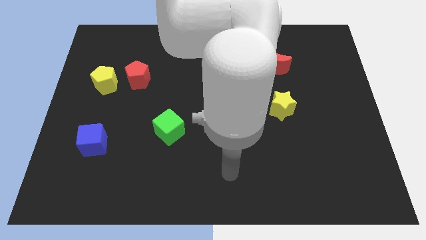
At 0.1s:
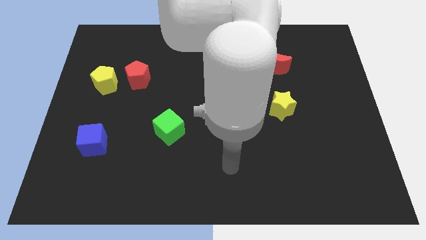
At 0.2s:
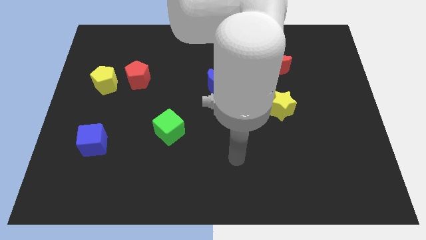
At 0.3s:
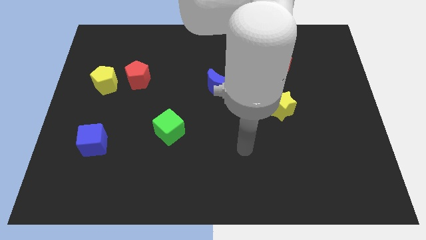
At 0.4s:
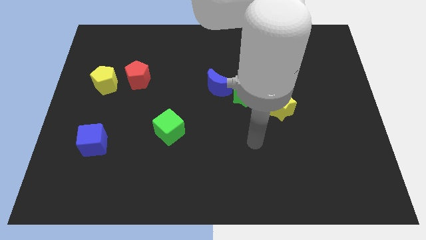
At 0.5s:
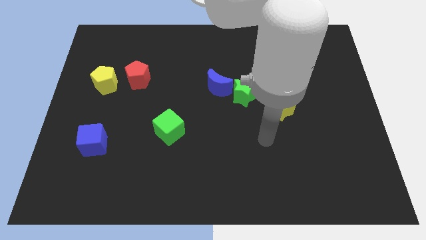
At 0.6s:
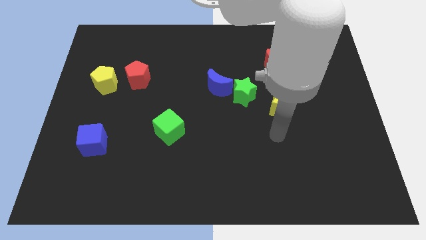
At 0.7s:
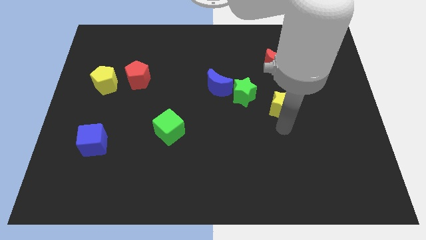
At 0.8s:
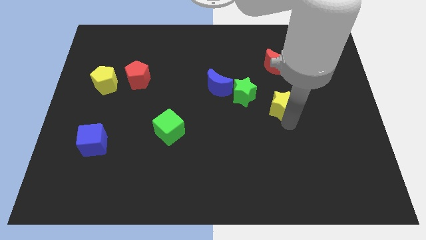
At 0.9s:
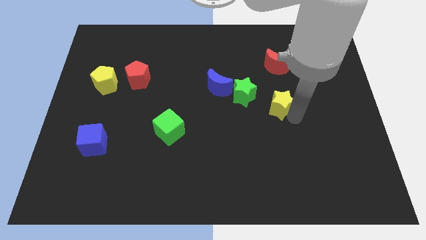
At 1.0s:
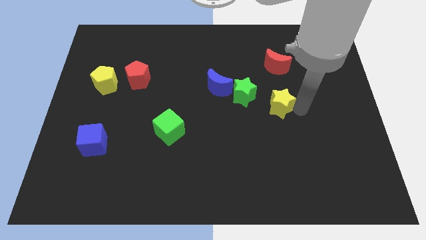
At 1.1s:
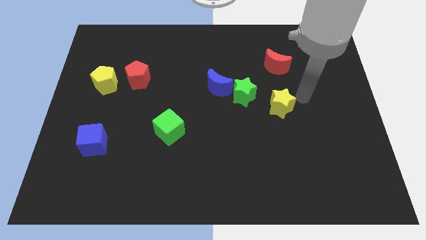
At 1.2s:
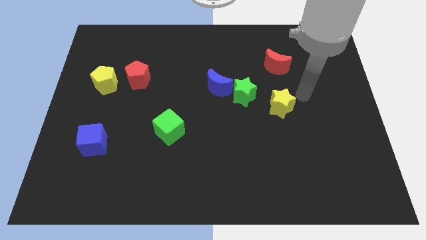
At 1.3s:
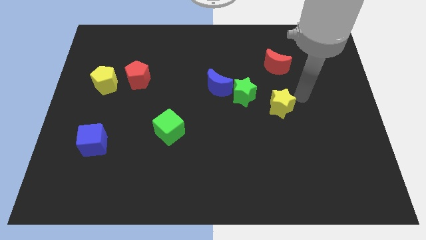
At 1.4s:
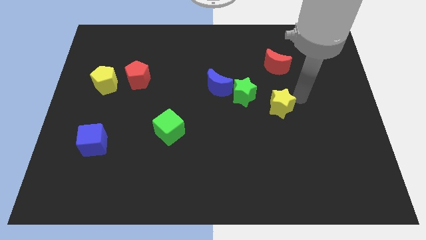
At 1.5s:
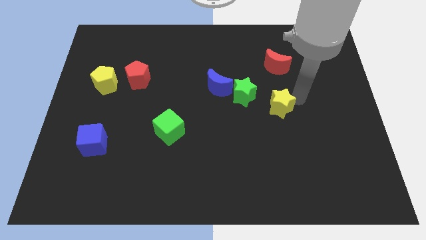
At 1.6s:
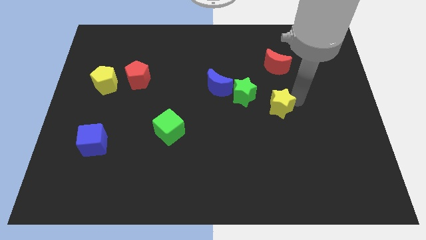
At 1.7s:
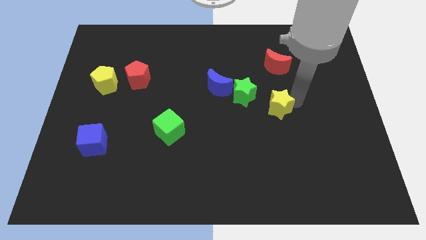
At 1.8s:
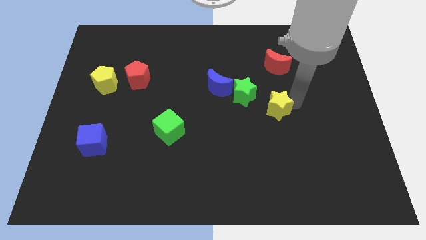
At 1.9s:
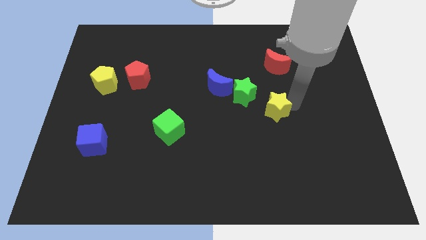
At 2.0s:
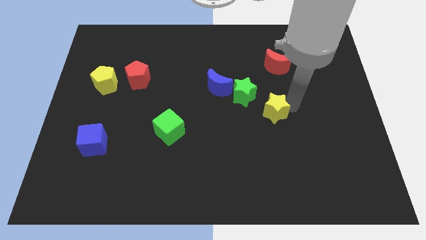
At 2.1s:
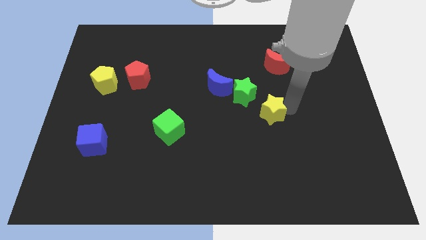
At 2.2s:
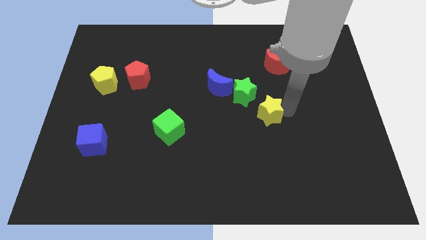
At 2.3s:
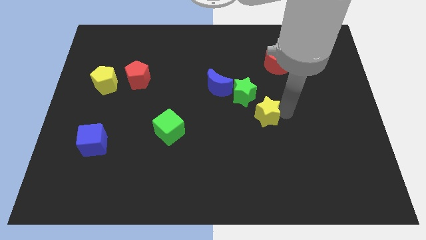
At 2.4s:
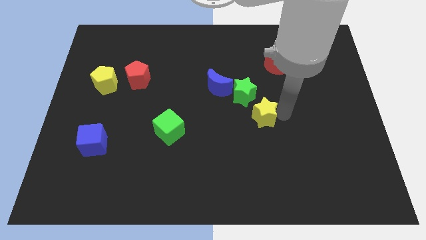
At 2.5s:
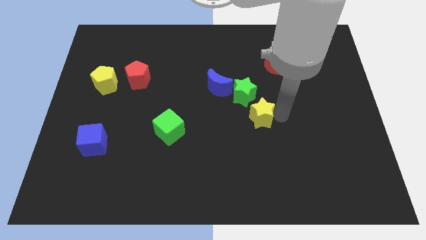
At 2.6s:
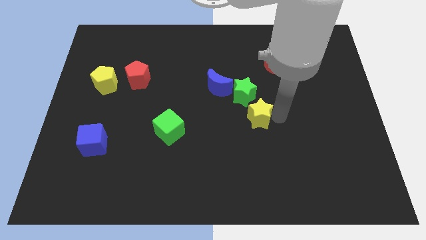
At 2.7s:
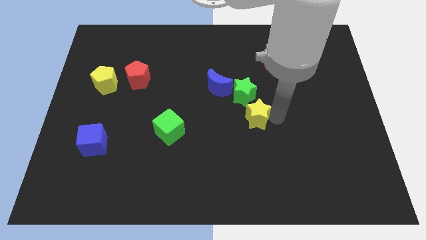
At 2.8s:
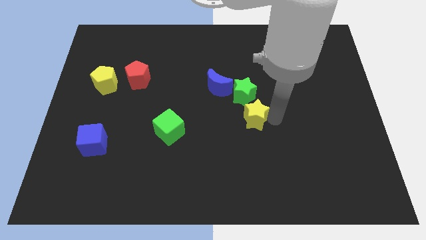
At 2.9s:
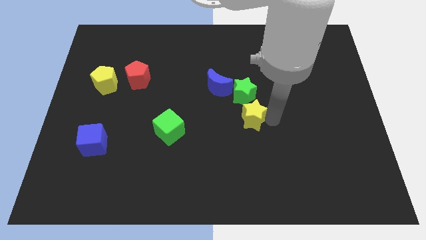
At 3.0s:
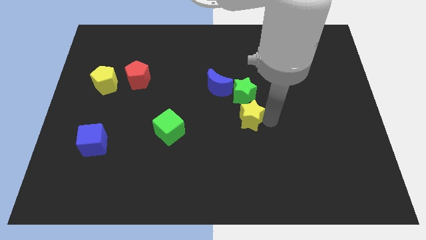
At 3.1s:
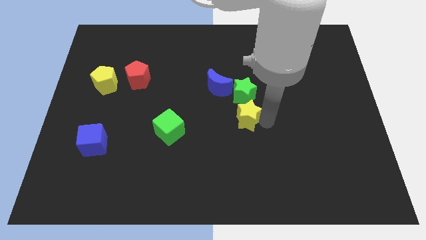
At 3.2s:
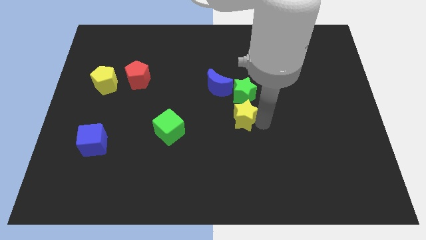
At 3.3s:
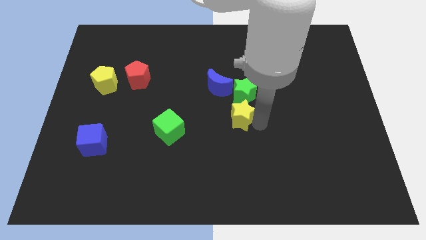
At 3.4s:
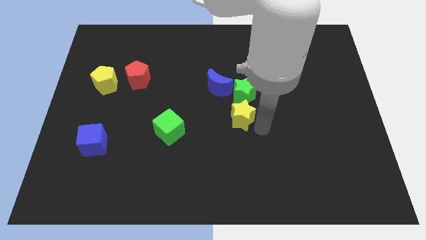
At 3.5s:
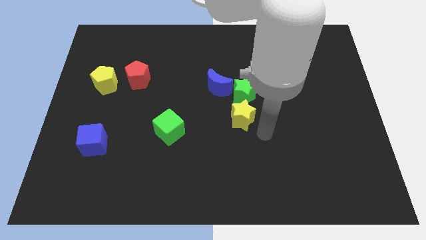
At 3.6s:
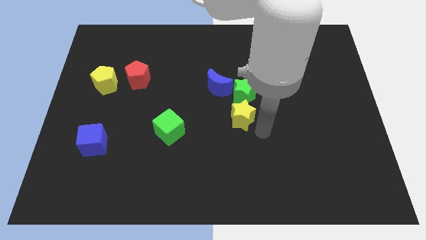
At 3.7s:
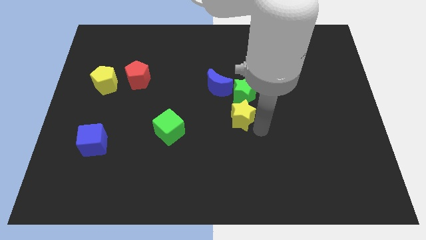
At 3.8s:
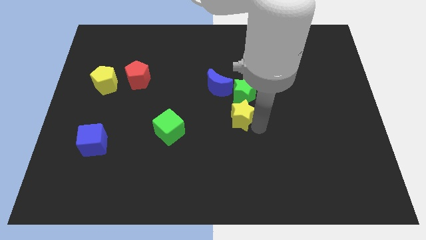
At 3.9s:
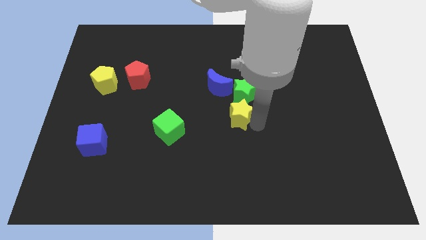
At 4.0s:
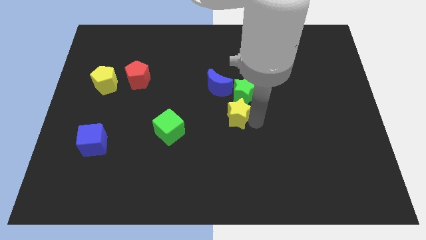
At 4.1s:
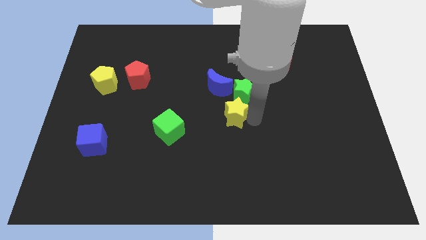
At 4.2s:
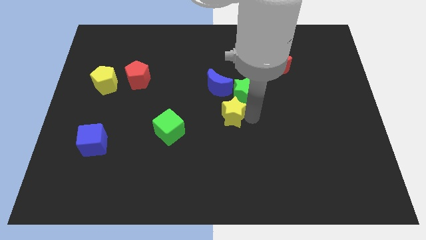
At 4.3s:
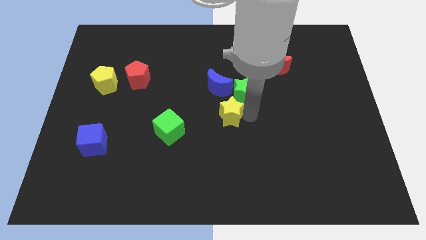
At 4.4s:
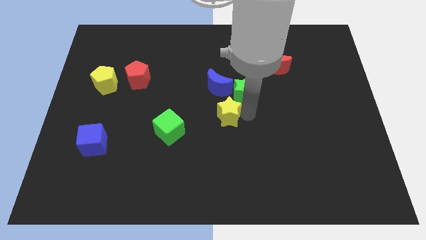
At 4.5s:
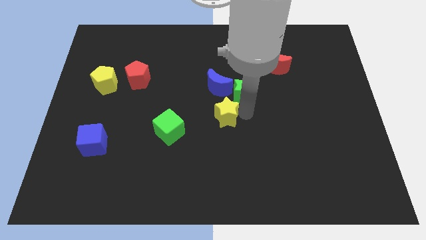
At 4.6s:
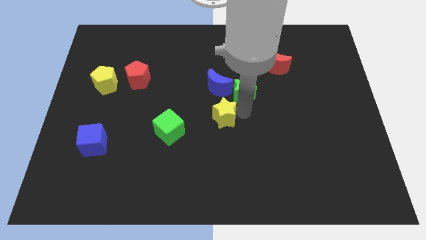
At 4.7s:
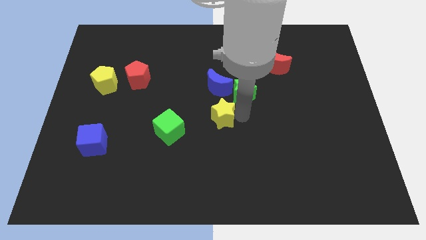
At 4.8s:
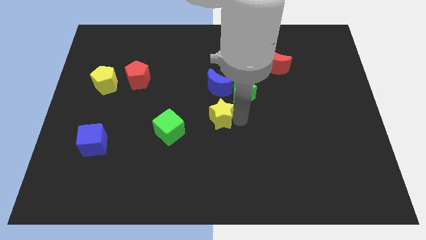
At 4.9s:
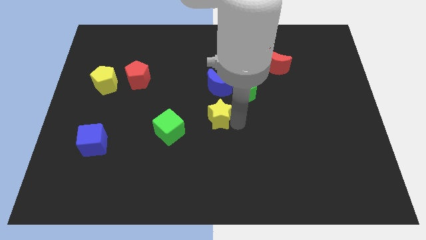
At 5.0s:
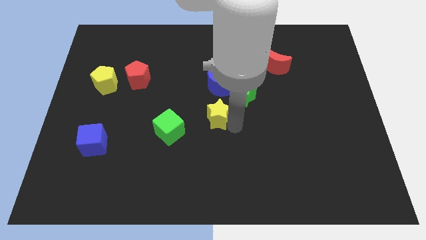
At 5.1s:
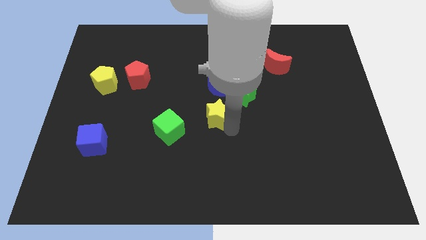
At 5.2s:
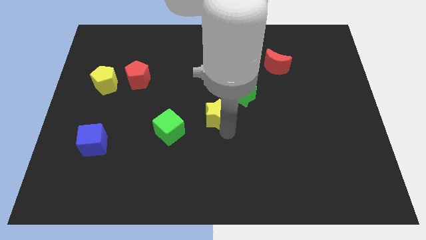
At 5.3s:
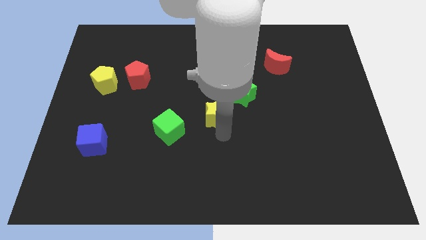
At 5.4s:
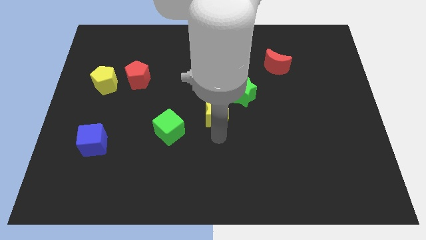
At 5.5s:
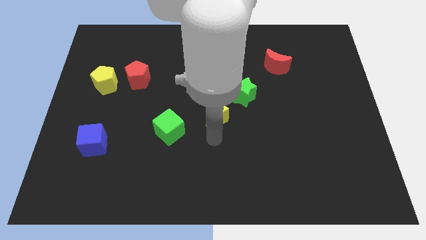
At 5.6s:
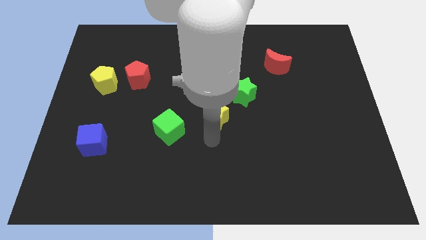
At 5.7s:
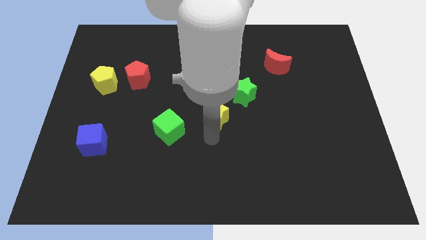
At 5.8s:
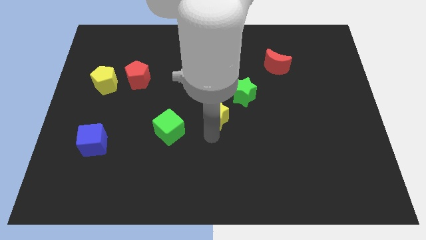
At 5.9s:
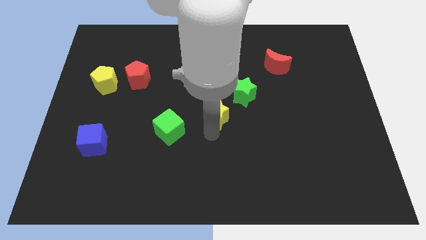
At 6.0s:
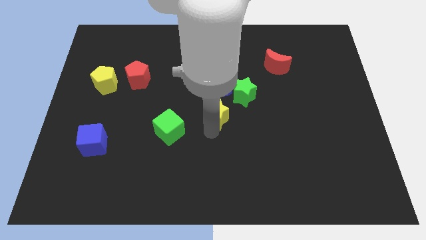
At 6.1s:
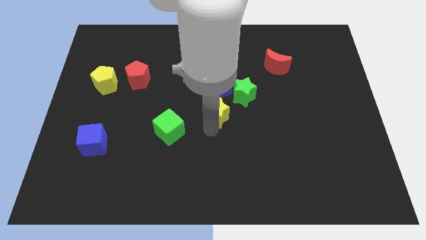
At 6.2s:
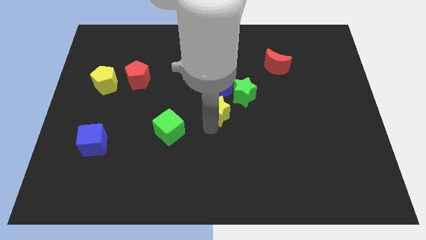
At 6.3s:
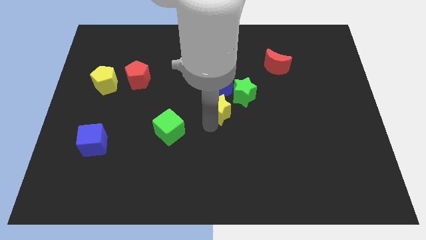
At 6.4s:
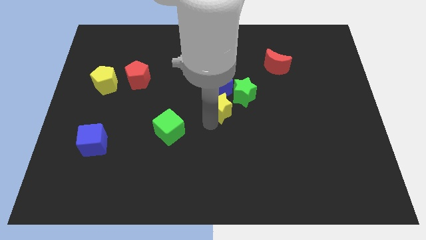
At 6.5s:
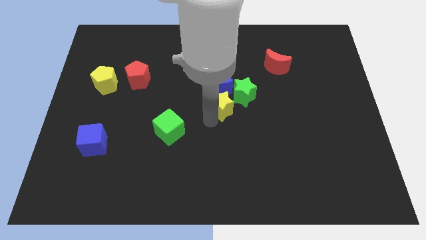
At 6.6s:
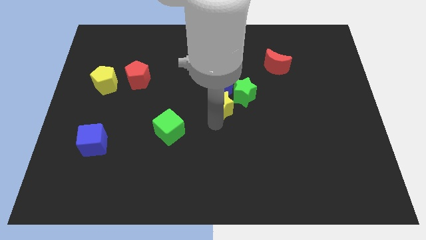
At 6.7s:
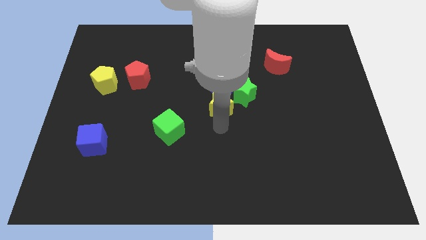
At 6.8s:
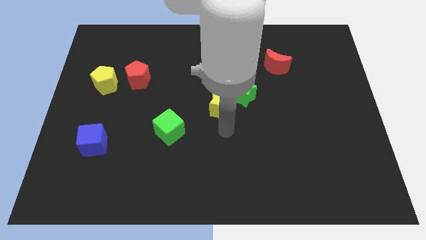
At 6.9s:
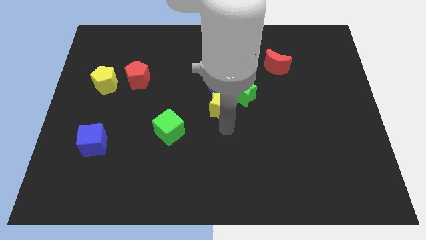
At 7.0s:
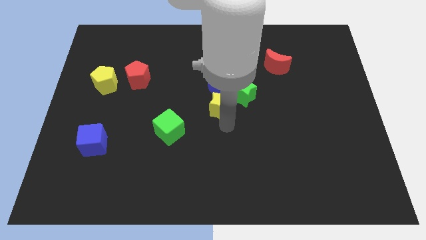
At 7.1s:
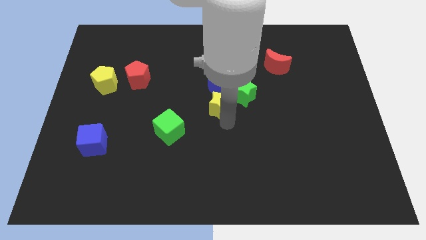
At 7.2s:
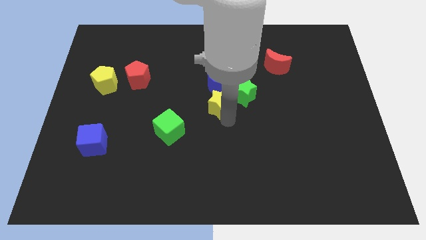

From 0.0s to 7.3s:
move the yellow star next to the blue moon
